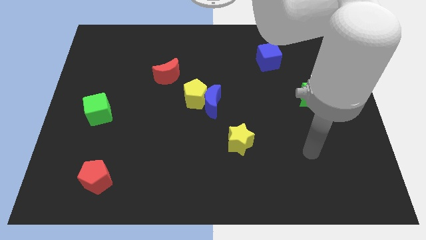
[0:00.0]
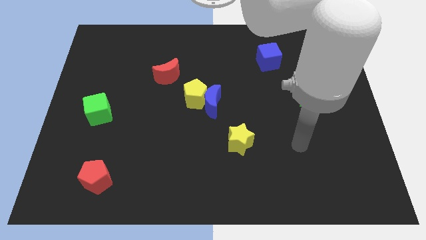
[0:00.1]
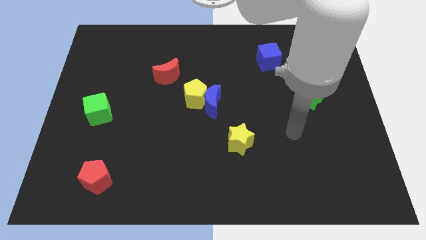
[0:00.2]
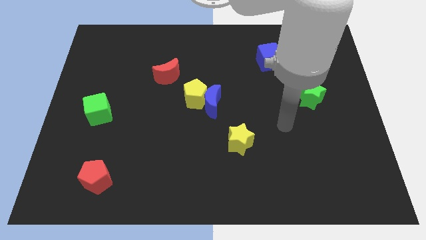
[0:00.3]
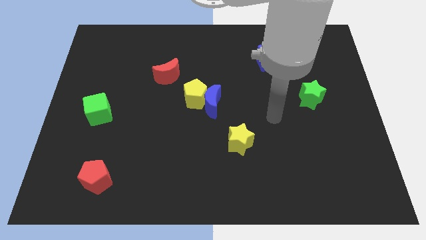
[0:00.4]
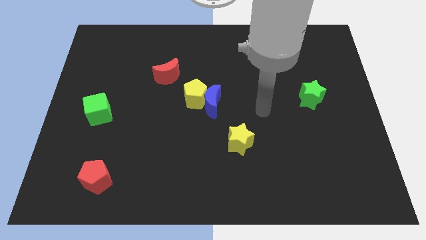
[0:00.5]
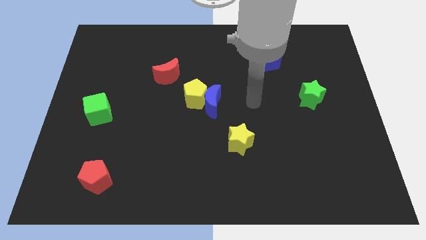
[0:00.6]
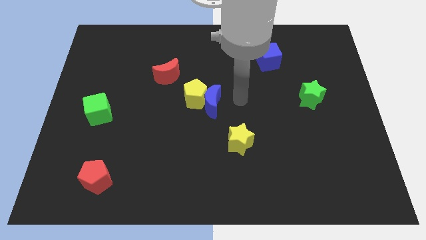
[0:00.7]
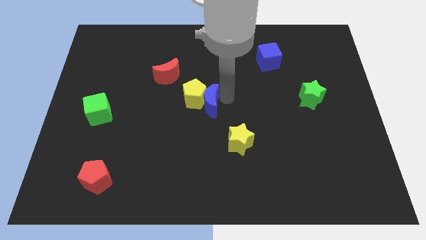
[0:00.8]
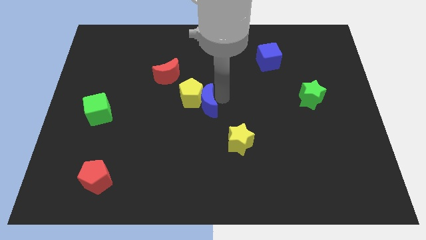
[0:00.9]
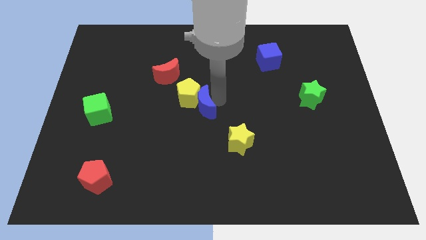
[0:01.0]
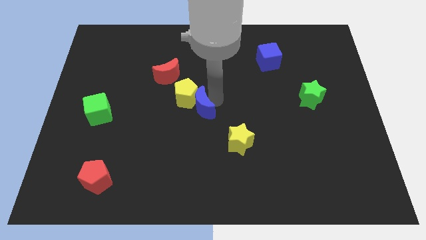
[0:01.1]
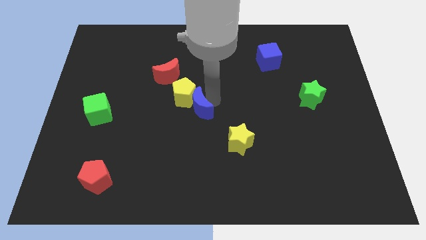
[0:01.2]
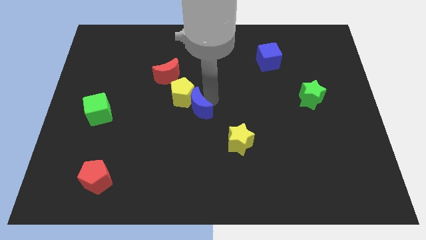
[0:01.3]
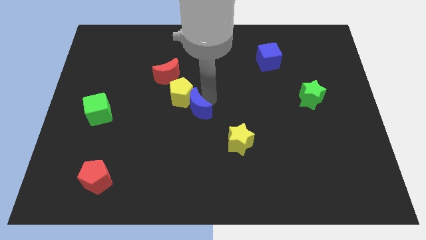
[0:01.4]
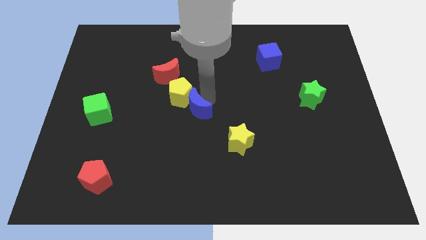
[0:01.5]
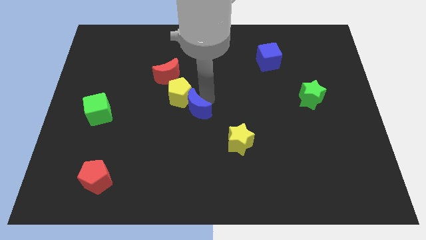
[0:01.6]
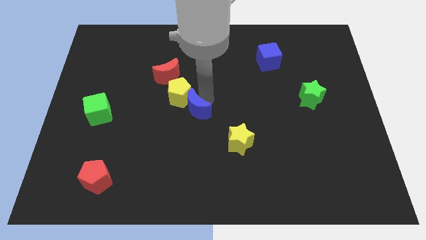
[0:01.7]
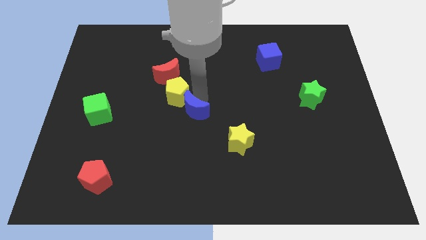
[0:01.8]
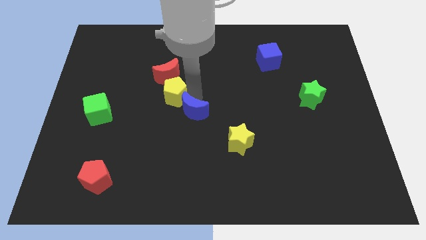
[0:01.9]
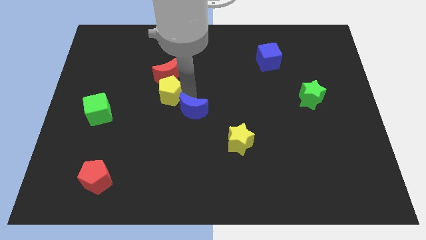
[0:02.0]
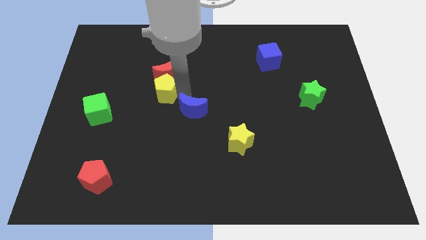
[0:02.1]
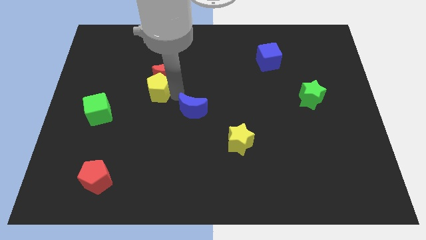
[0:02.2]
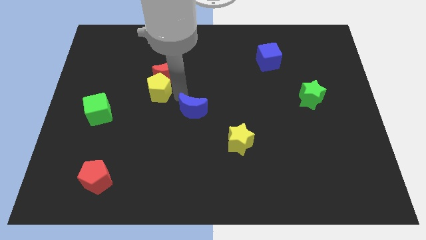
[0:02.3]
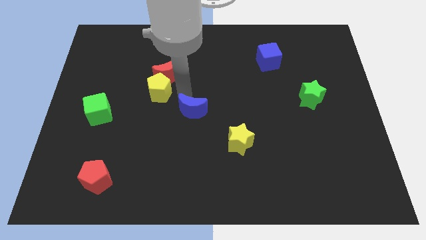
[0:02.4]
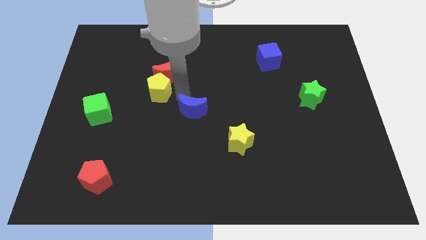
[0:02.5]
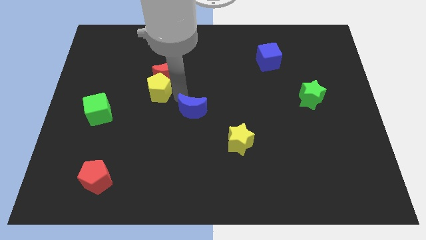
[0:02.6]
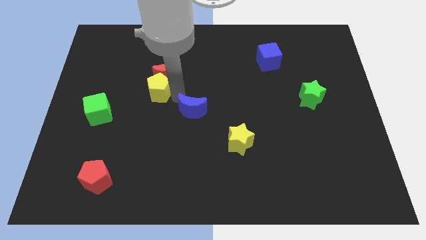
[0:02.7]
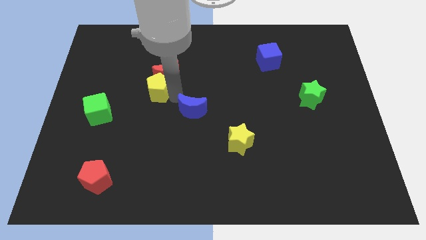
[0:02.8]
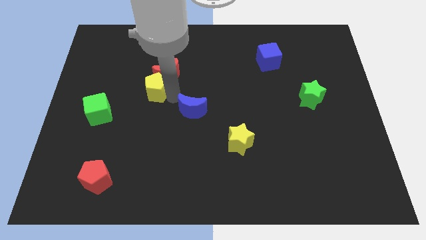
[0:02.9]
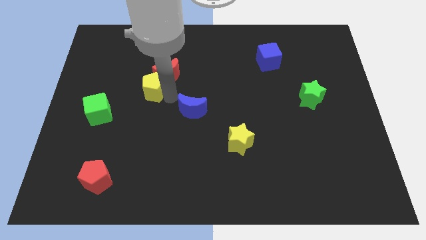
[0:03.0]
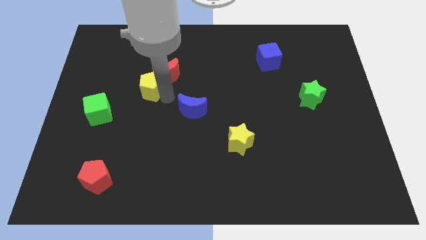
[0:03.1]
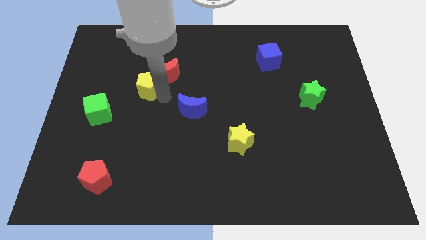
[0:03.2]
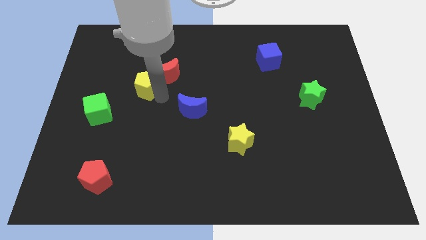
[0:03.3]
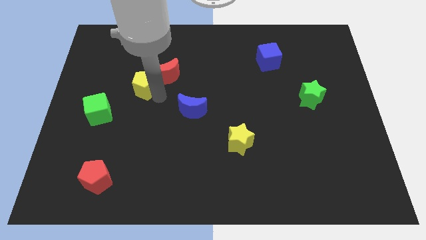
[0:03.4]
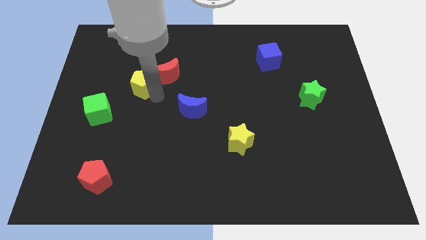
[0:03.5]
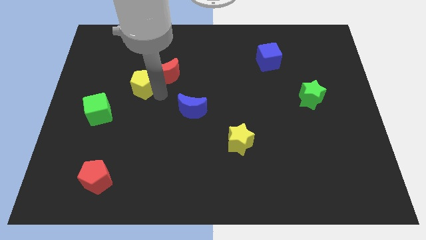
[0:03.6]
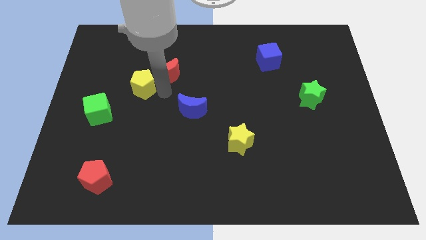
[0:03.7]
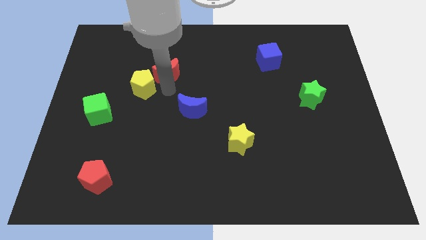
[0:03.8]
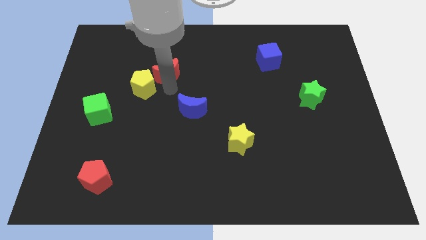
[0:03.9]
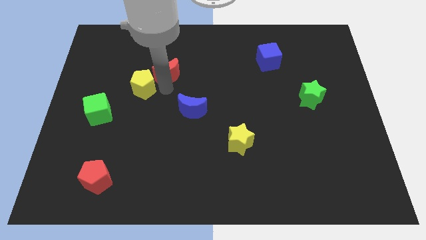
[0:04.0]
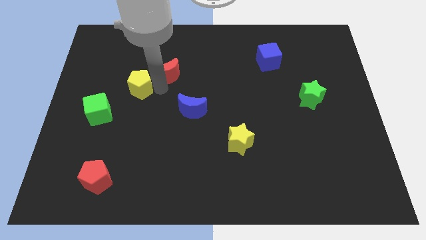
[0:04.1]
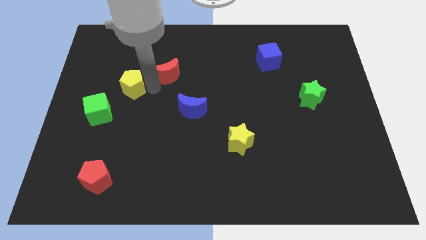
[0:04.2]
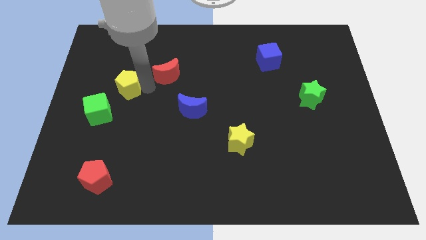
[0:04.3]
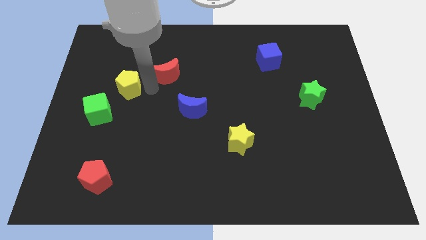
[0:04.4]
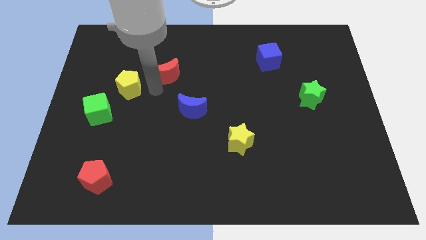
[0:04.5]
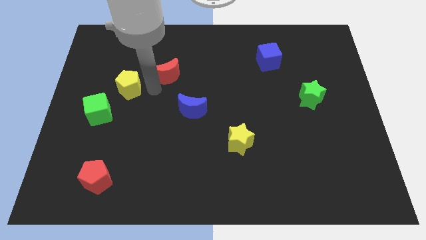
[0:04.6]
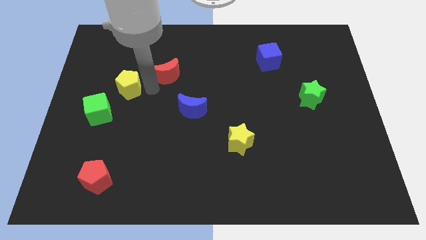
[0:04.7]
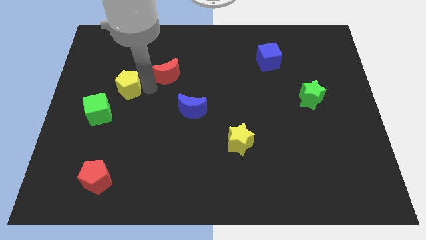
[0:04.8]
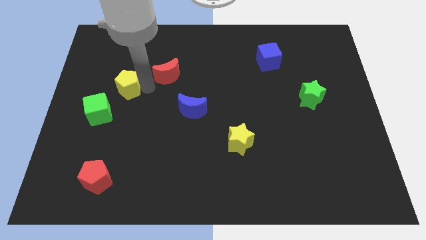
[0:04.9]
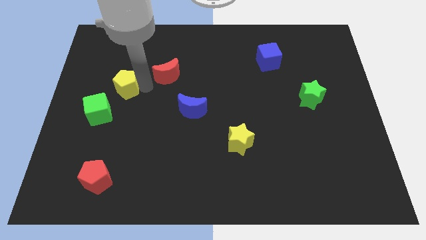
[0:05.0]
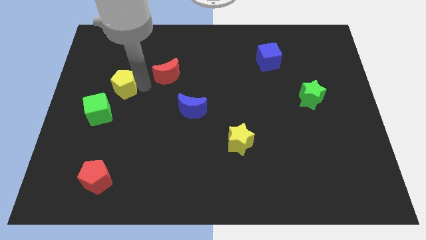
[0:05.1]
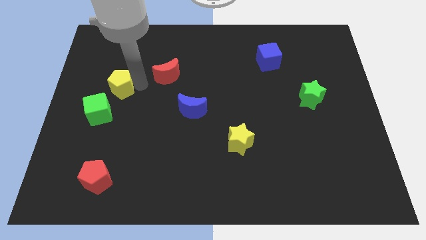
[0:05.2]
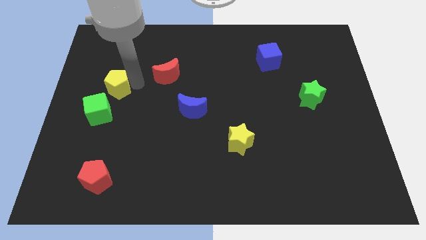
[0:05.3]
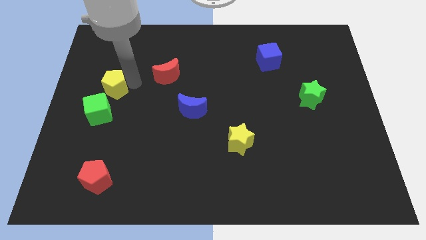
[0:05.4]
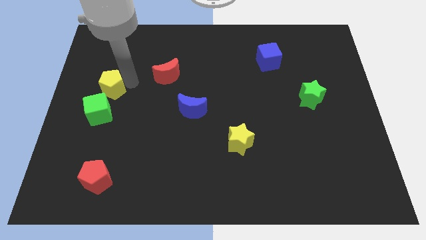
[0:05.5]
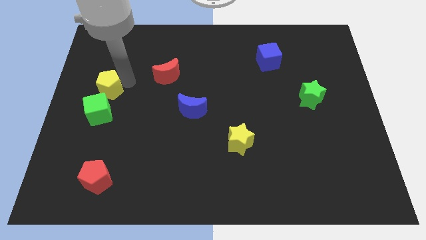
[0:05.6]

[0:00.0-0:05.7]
slide the yellow pentagon to the left side
